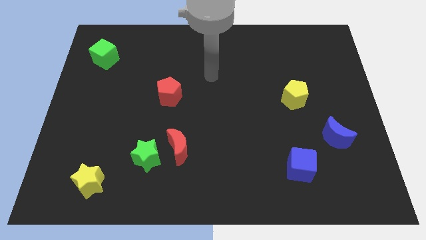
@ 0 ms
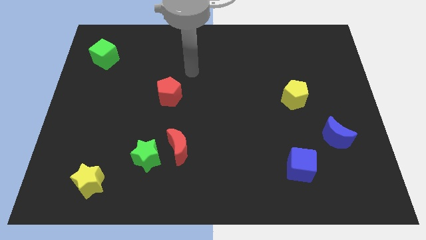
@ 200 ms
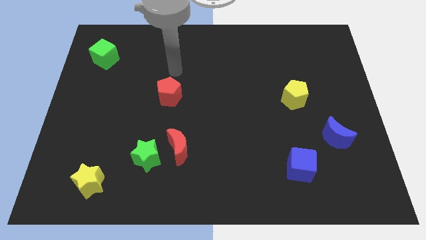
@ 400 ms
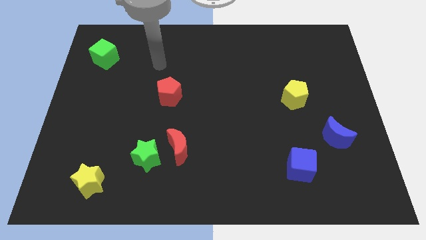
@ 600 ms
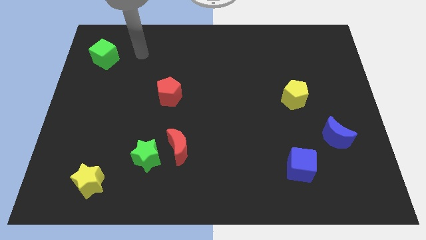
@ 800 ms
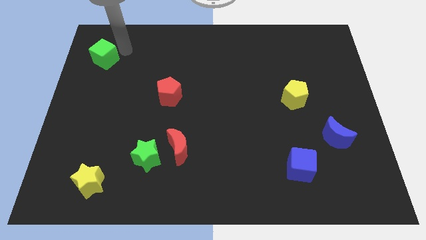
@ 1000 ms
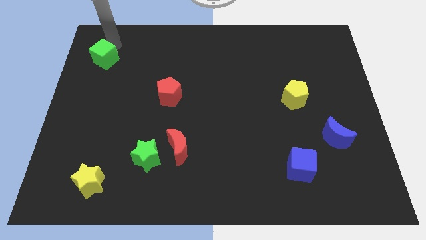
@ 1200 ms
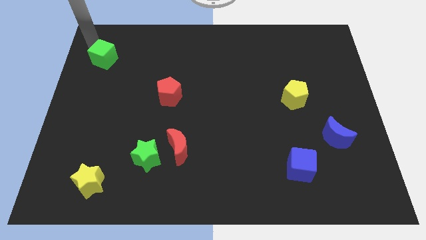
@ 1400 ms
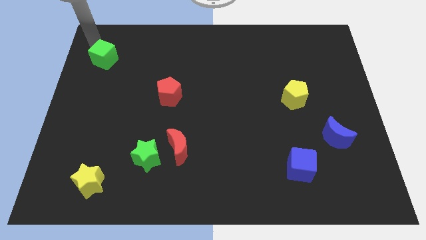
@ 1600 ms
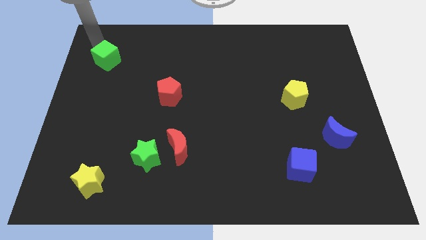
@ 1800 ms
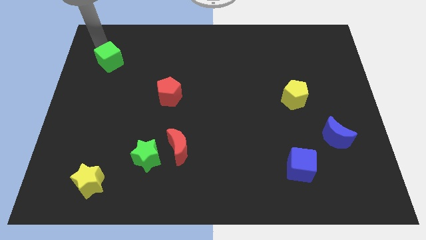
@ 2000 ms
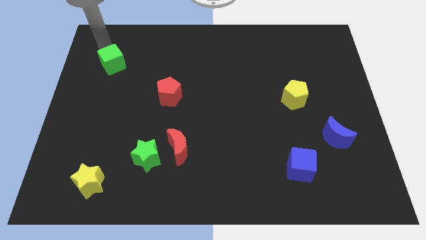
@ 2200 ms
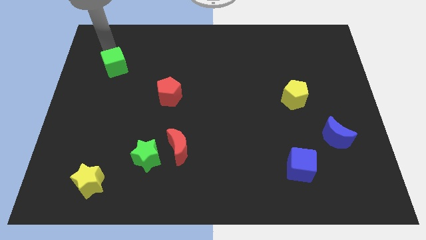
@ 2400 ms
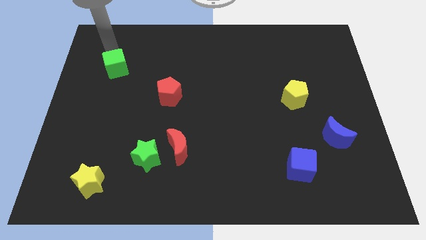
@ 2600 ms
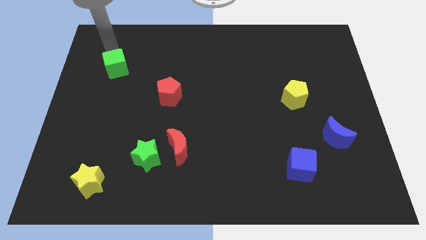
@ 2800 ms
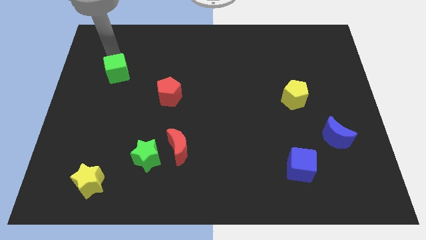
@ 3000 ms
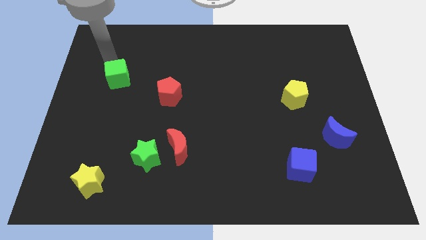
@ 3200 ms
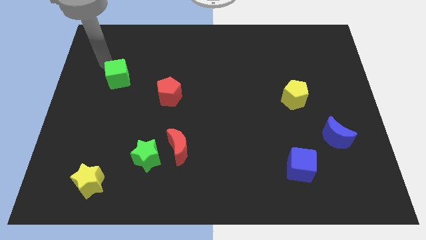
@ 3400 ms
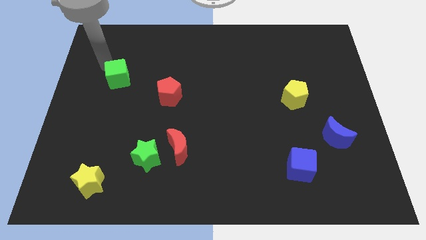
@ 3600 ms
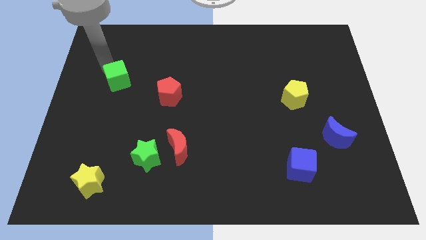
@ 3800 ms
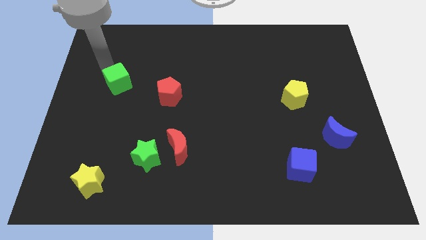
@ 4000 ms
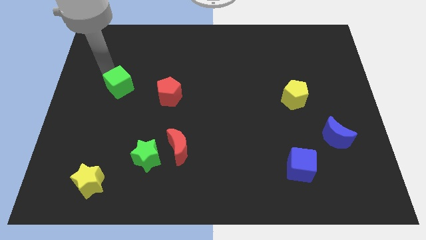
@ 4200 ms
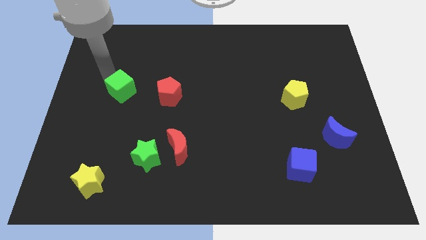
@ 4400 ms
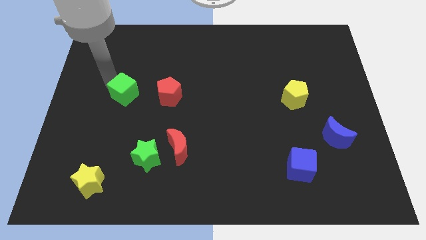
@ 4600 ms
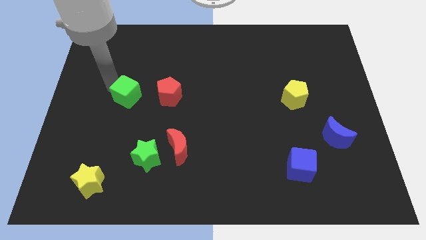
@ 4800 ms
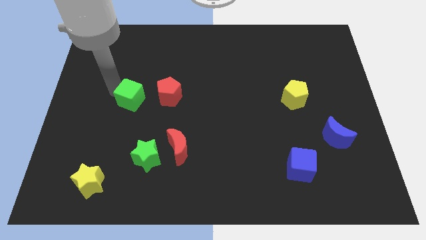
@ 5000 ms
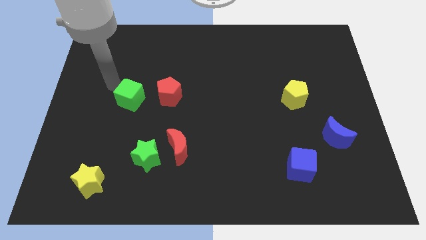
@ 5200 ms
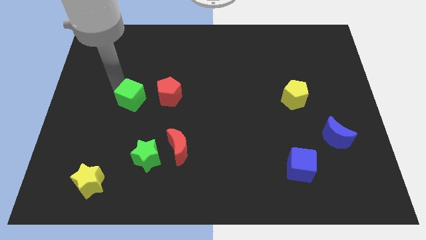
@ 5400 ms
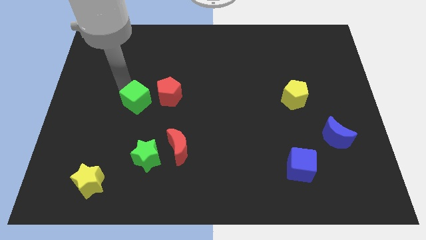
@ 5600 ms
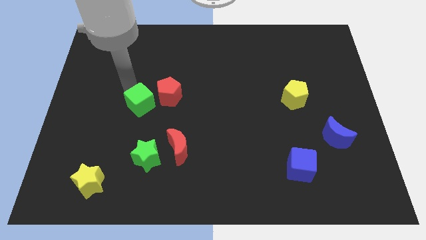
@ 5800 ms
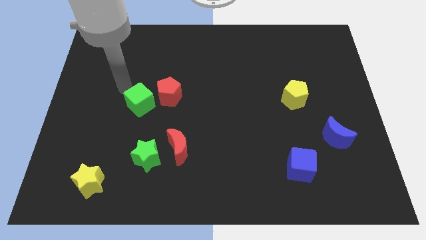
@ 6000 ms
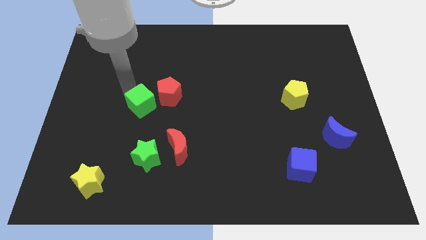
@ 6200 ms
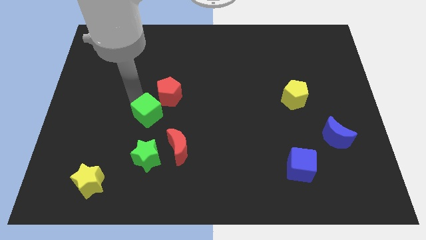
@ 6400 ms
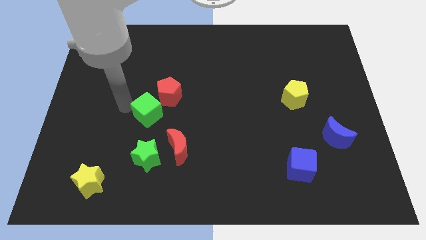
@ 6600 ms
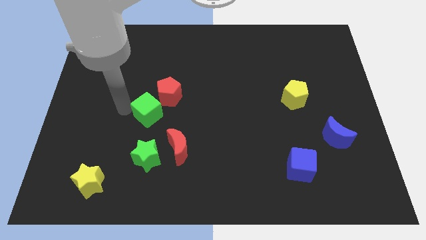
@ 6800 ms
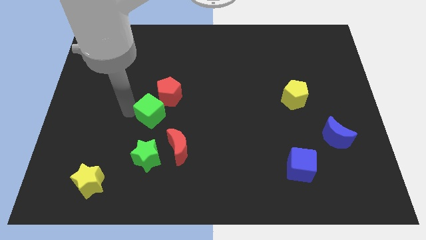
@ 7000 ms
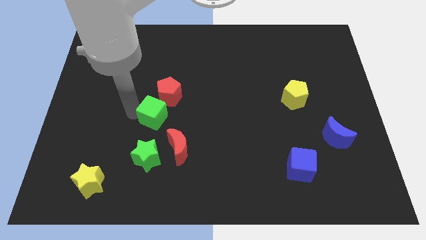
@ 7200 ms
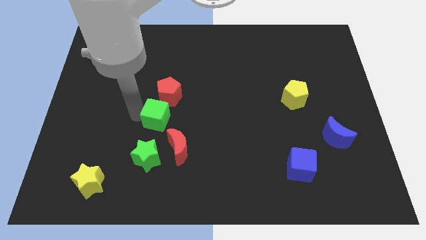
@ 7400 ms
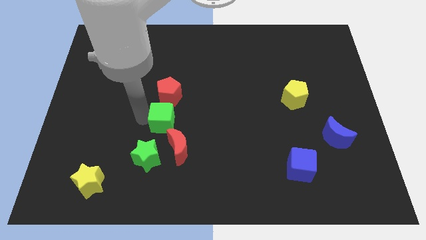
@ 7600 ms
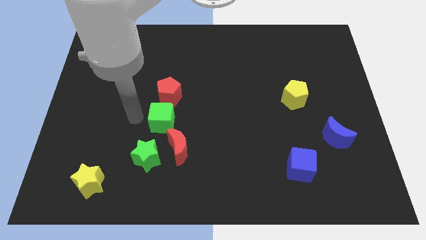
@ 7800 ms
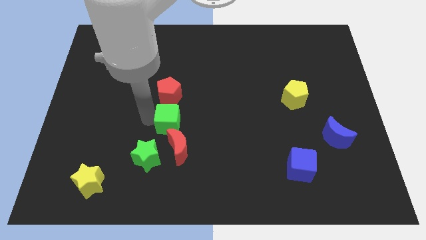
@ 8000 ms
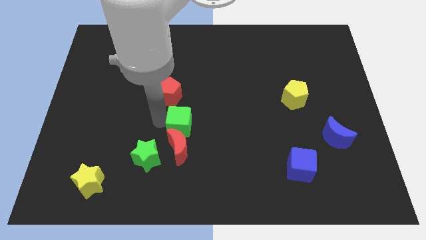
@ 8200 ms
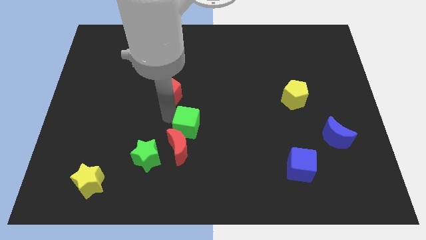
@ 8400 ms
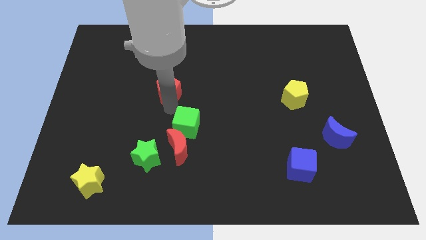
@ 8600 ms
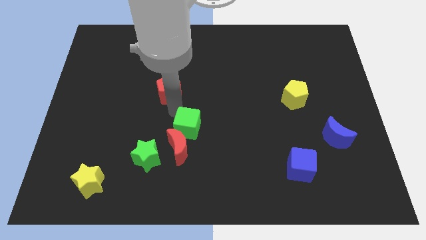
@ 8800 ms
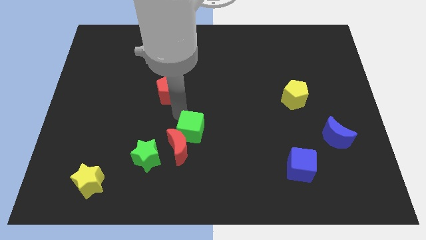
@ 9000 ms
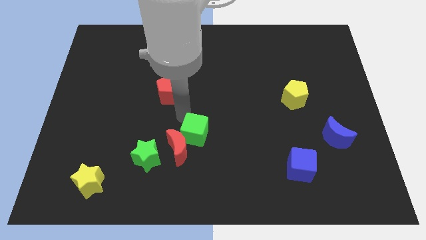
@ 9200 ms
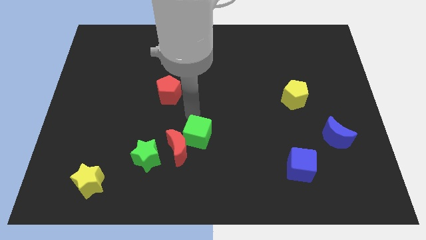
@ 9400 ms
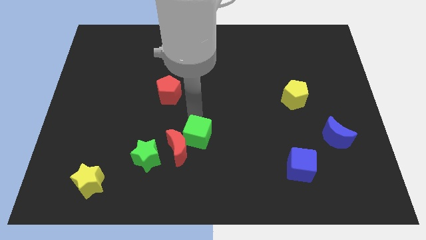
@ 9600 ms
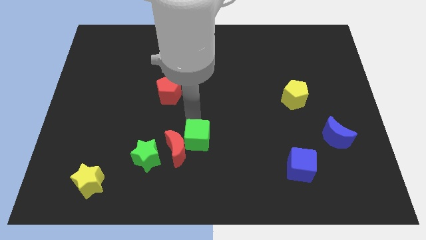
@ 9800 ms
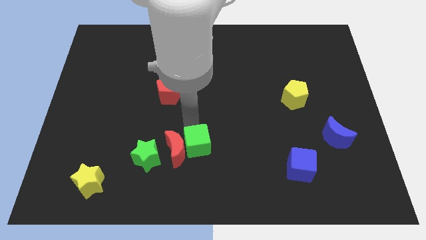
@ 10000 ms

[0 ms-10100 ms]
slide the green cube diagonally down and to the right of the red moon

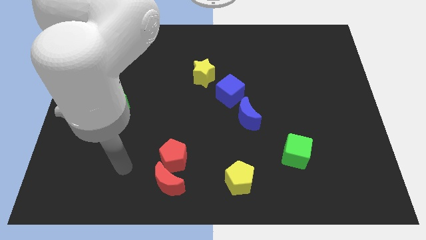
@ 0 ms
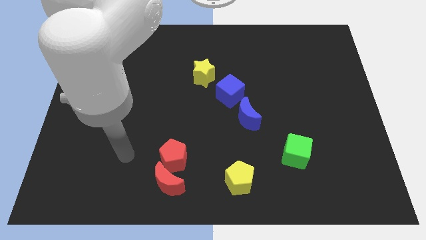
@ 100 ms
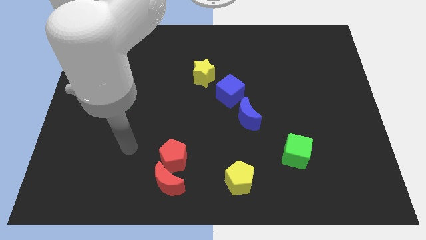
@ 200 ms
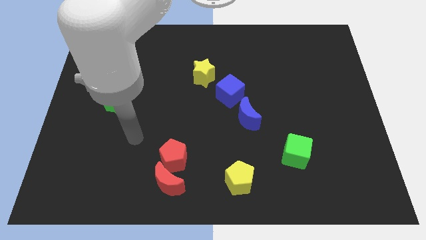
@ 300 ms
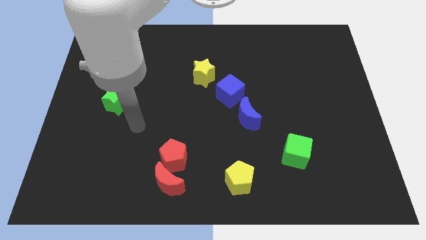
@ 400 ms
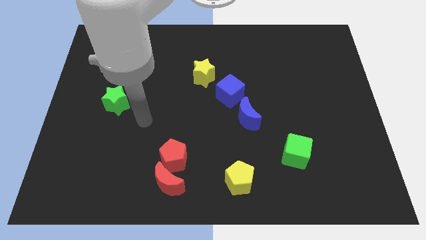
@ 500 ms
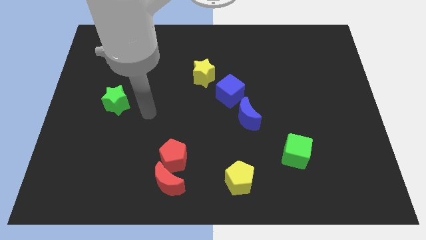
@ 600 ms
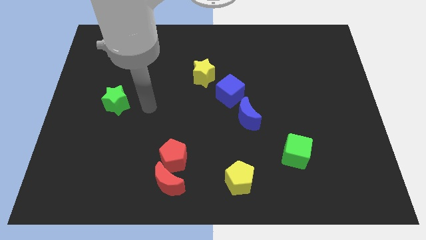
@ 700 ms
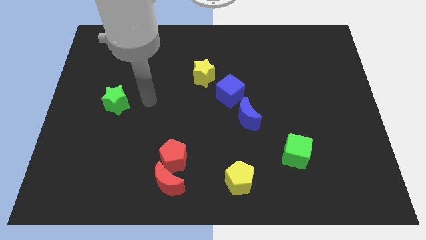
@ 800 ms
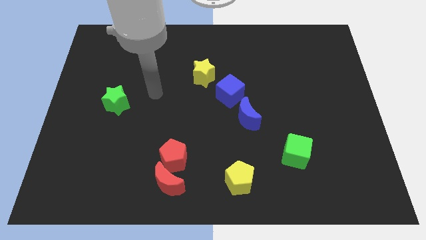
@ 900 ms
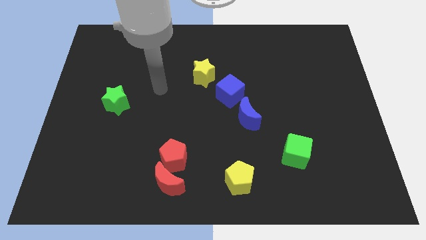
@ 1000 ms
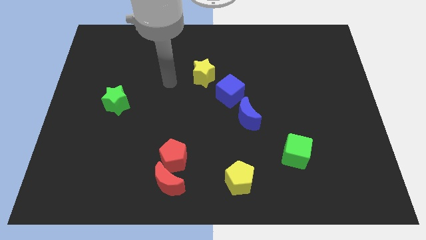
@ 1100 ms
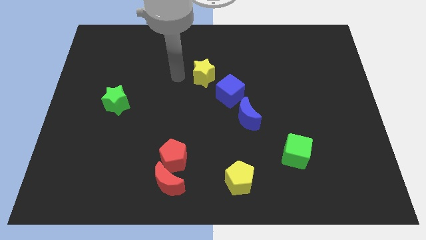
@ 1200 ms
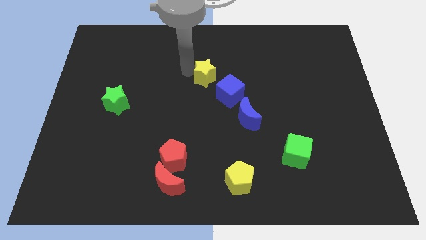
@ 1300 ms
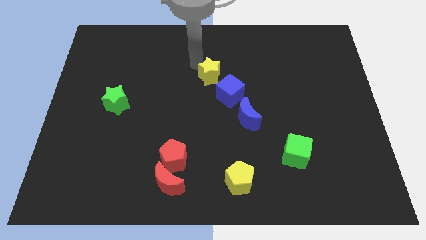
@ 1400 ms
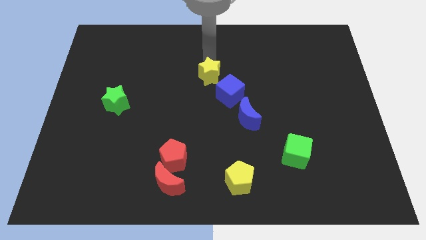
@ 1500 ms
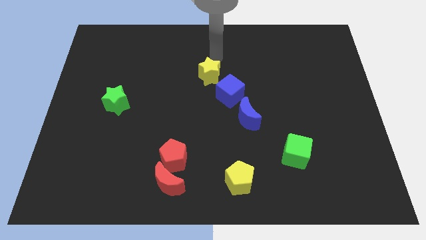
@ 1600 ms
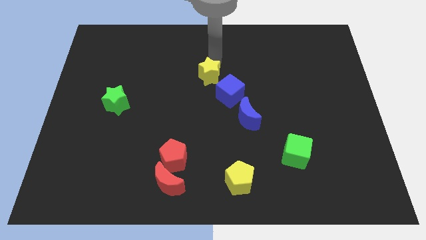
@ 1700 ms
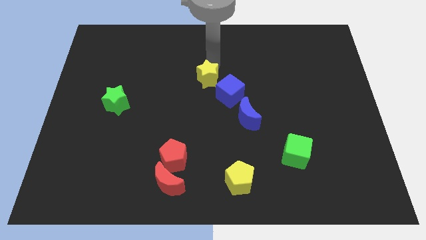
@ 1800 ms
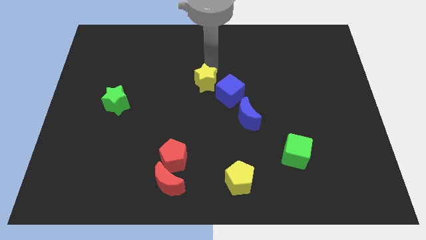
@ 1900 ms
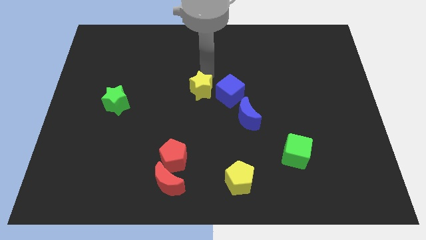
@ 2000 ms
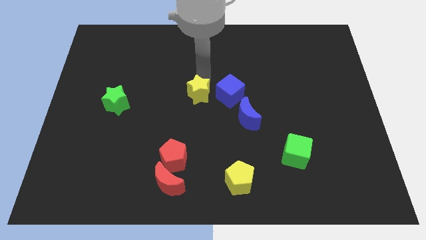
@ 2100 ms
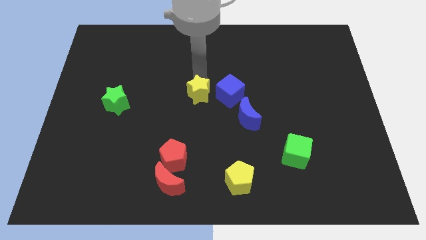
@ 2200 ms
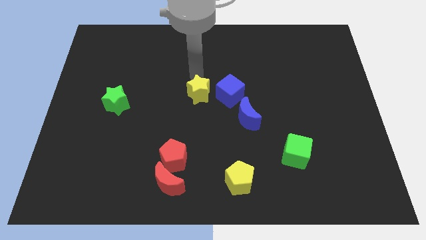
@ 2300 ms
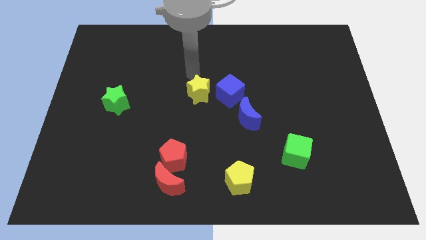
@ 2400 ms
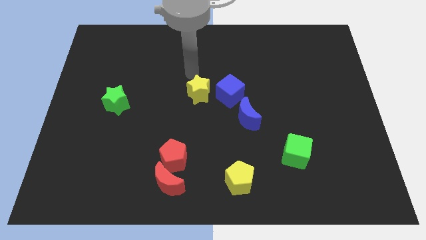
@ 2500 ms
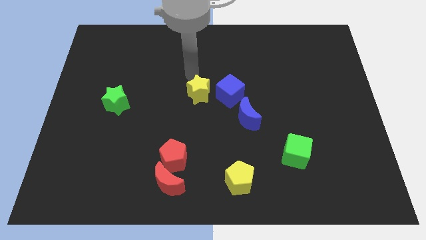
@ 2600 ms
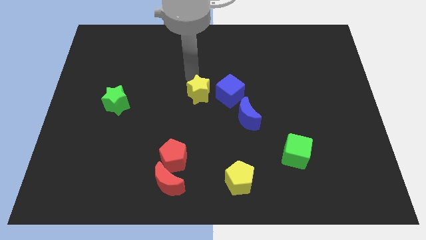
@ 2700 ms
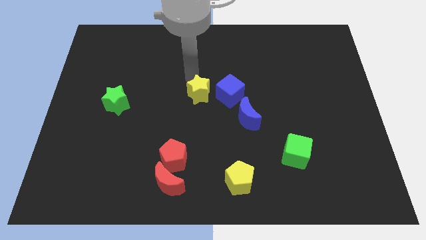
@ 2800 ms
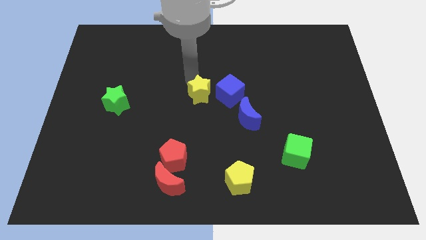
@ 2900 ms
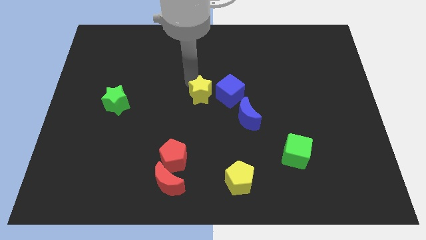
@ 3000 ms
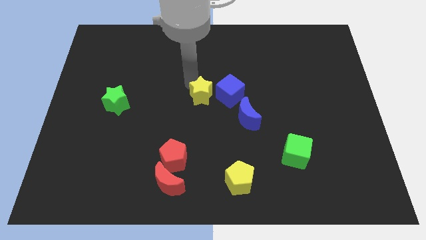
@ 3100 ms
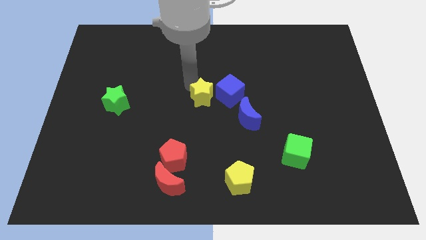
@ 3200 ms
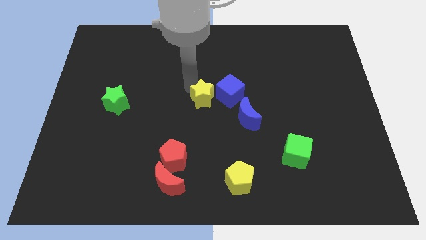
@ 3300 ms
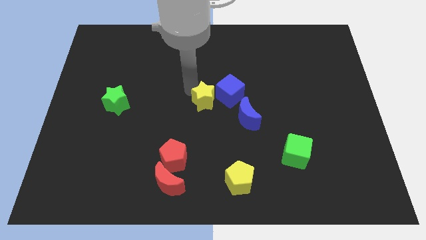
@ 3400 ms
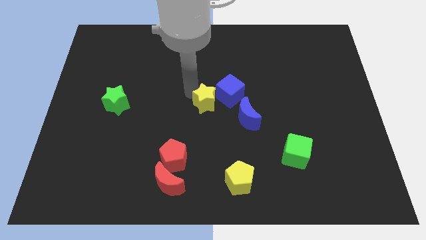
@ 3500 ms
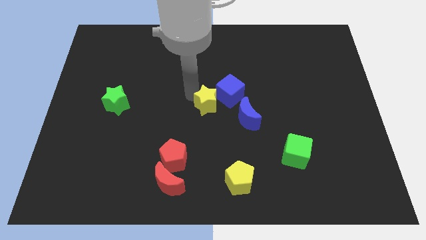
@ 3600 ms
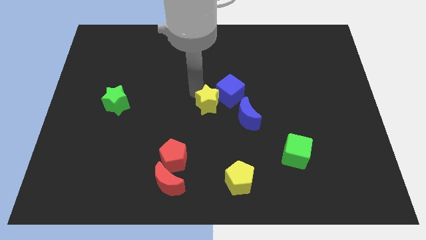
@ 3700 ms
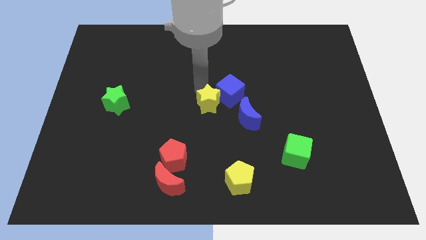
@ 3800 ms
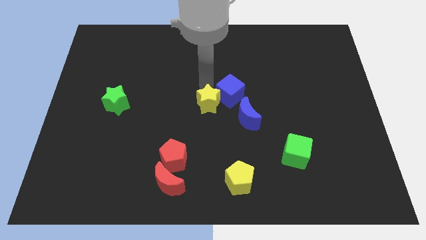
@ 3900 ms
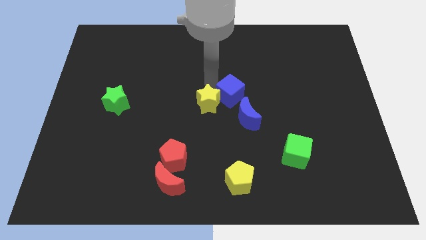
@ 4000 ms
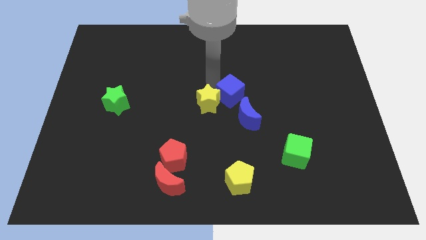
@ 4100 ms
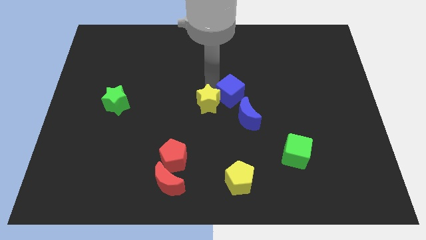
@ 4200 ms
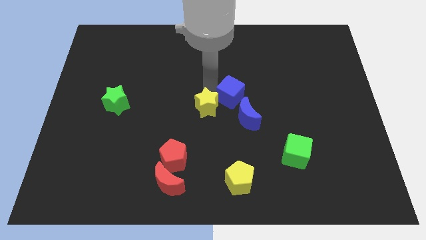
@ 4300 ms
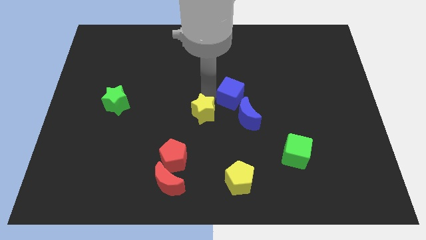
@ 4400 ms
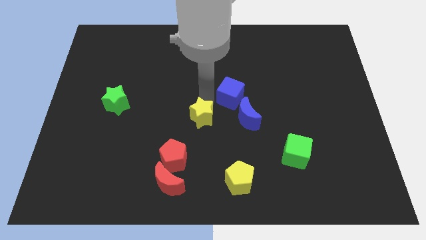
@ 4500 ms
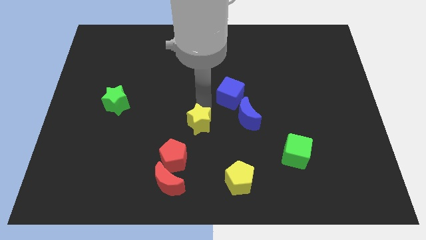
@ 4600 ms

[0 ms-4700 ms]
slide the yellow star to the top right side of the red pentagon
